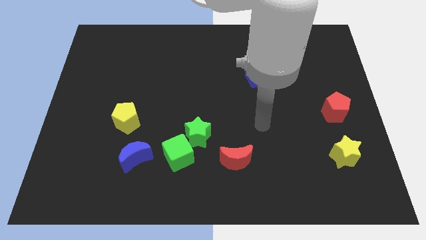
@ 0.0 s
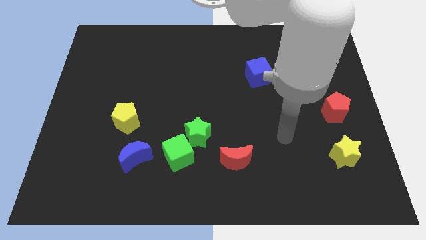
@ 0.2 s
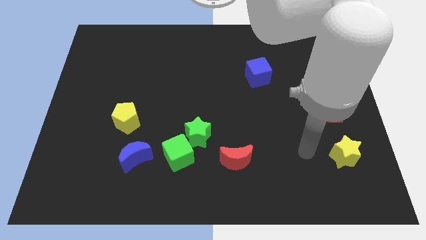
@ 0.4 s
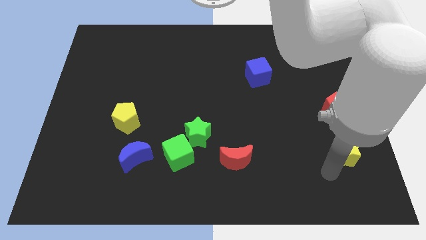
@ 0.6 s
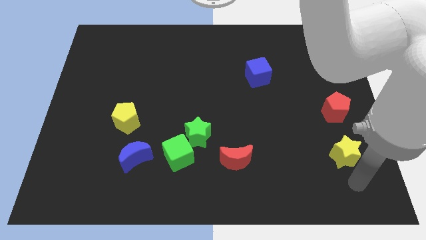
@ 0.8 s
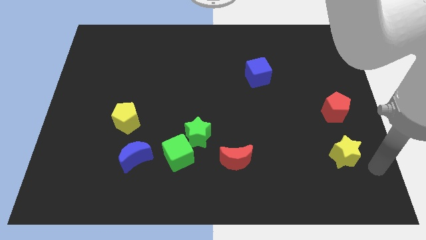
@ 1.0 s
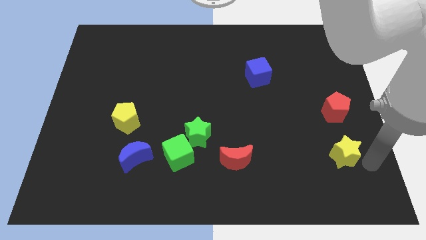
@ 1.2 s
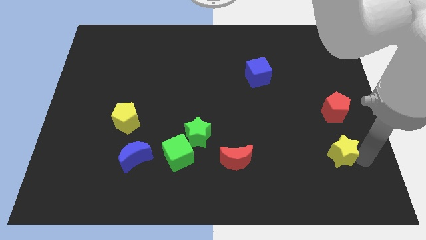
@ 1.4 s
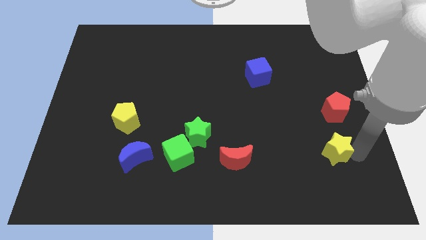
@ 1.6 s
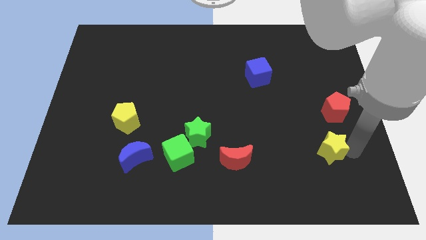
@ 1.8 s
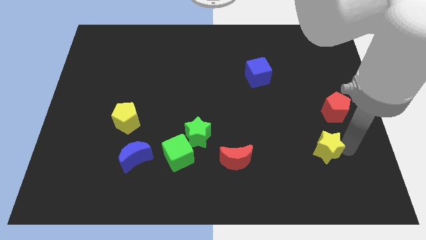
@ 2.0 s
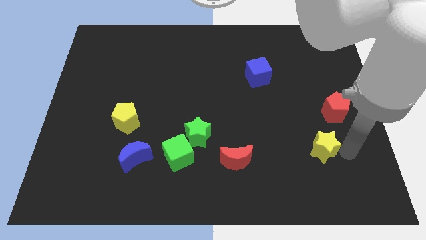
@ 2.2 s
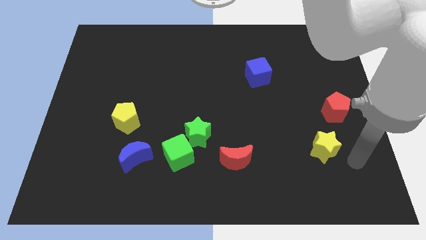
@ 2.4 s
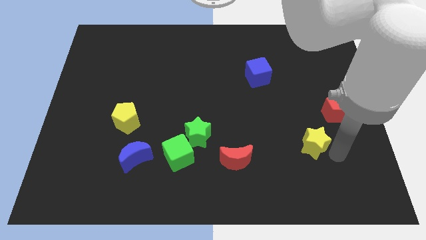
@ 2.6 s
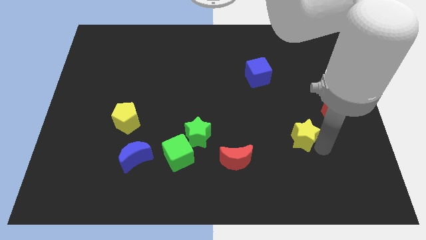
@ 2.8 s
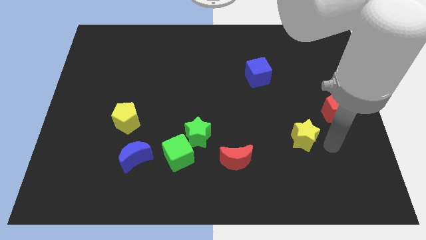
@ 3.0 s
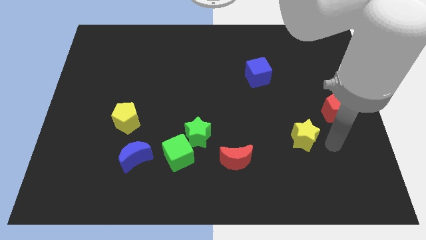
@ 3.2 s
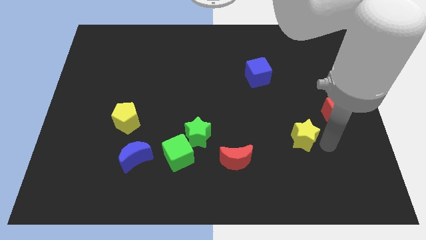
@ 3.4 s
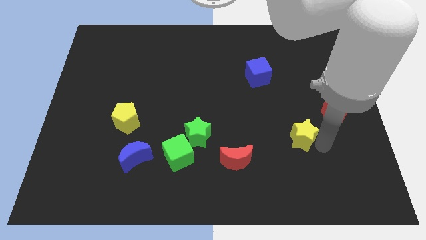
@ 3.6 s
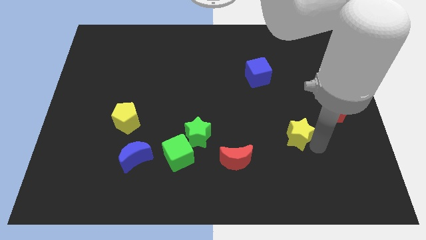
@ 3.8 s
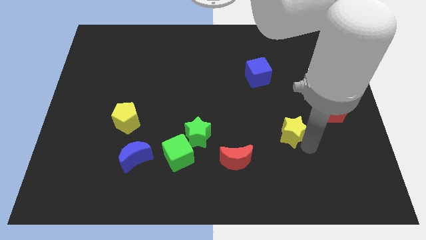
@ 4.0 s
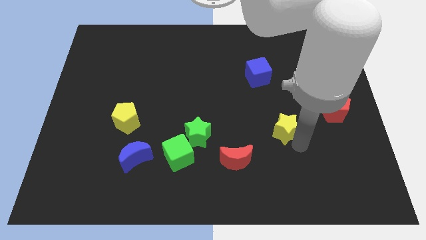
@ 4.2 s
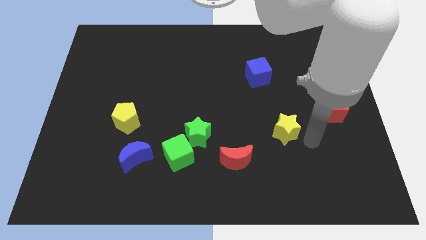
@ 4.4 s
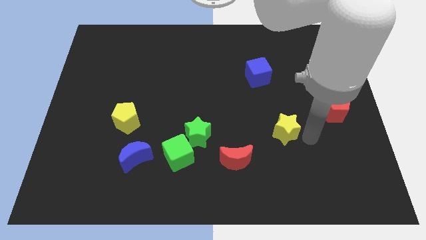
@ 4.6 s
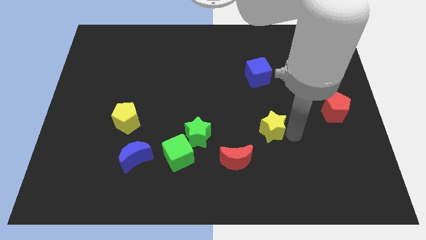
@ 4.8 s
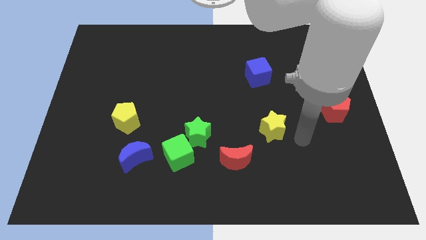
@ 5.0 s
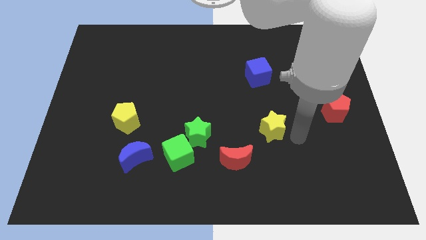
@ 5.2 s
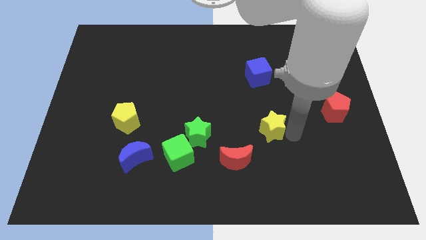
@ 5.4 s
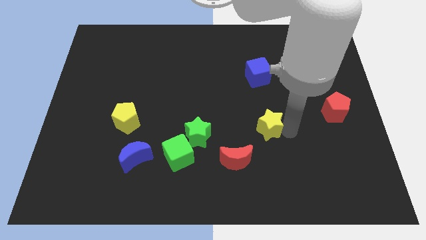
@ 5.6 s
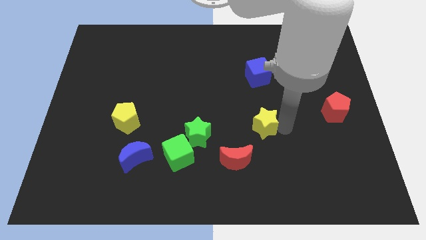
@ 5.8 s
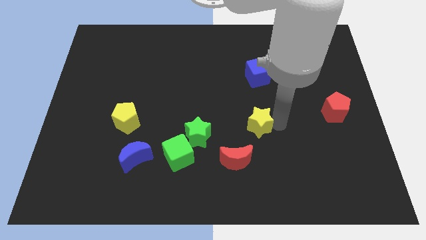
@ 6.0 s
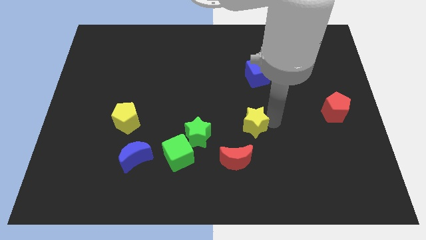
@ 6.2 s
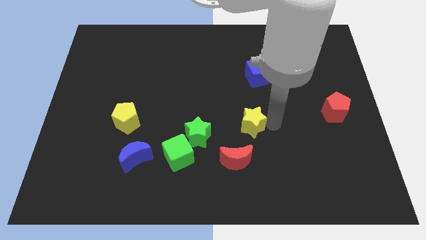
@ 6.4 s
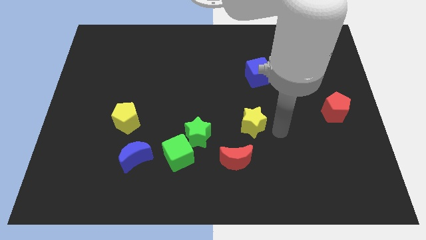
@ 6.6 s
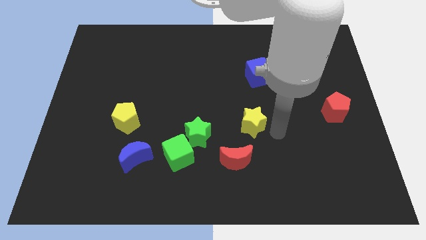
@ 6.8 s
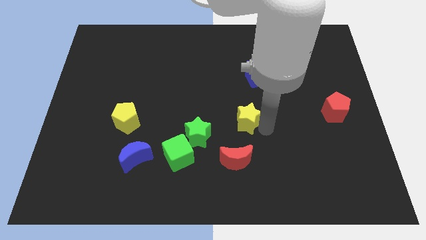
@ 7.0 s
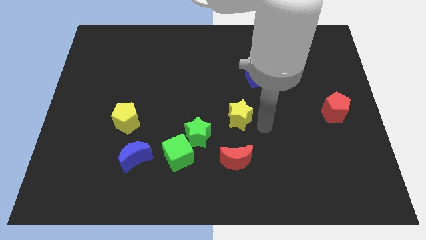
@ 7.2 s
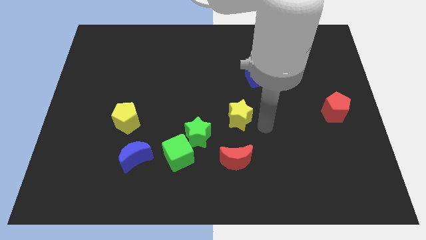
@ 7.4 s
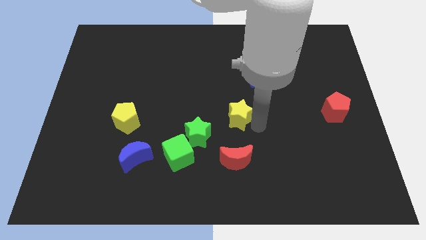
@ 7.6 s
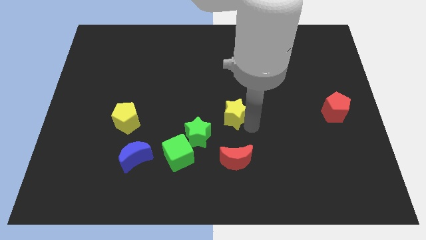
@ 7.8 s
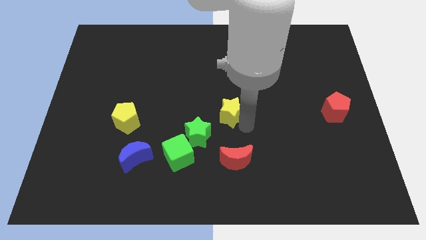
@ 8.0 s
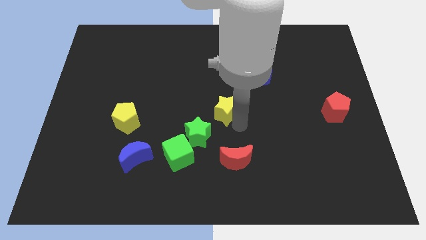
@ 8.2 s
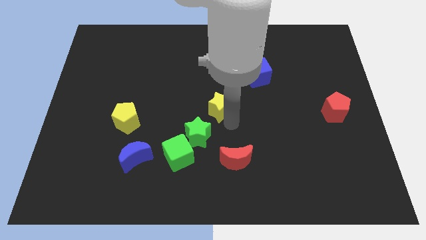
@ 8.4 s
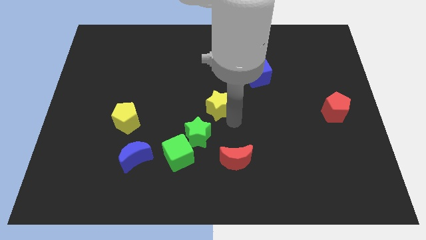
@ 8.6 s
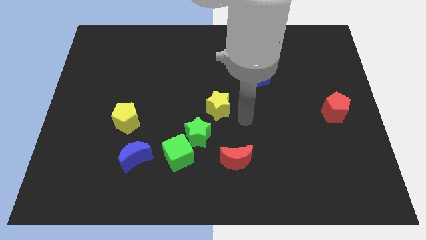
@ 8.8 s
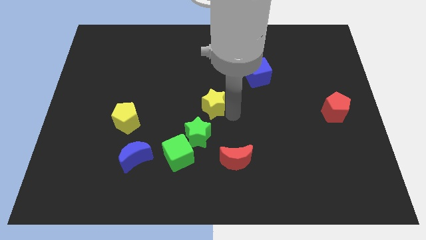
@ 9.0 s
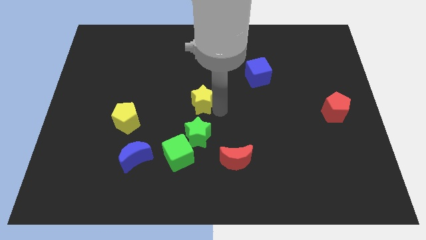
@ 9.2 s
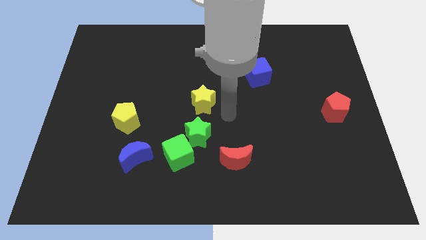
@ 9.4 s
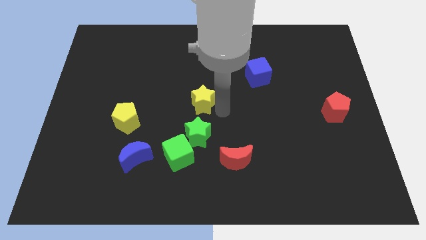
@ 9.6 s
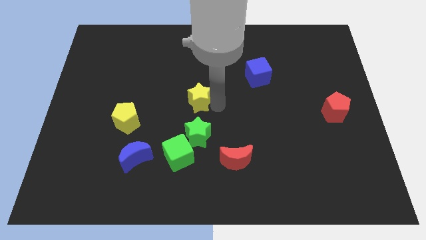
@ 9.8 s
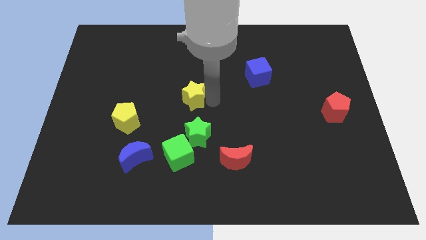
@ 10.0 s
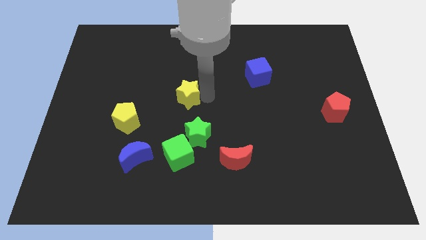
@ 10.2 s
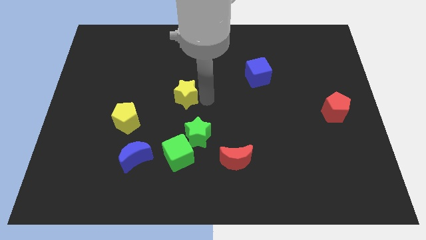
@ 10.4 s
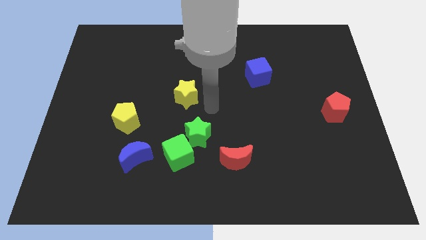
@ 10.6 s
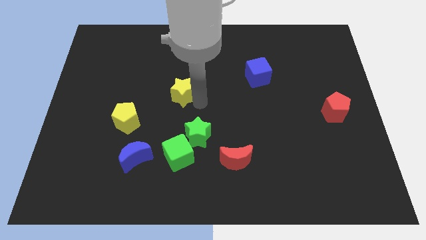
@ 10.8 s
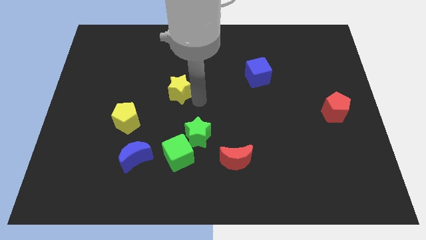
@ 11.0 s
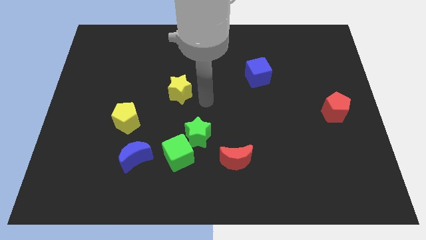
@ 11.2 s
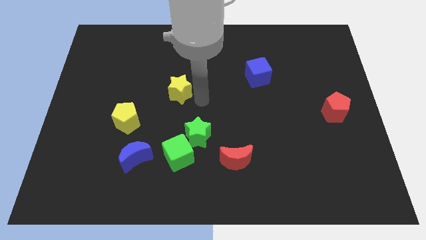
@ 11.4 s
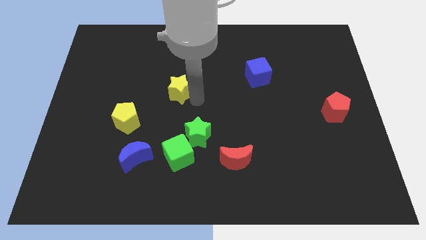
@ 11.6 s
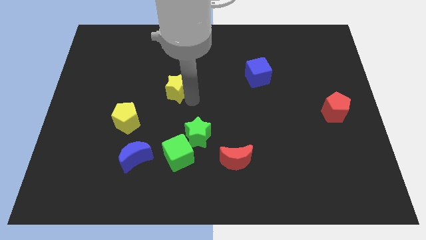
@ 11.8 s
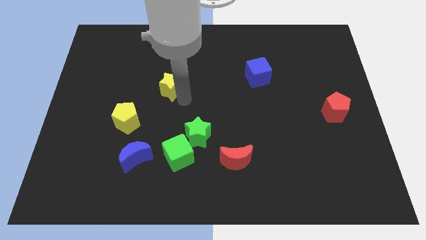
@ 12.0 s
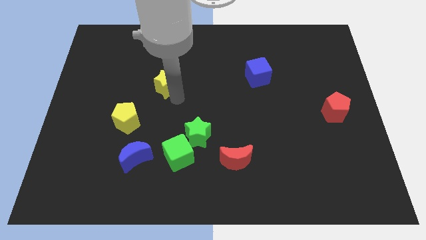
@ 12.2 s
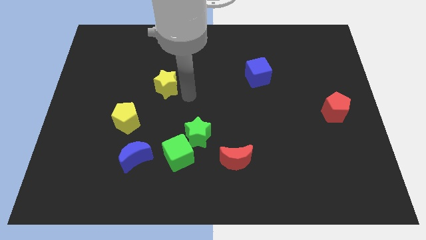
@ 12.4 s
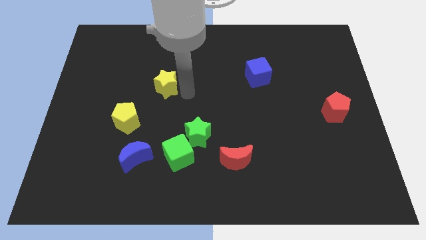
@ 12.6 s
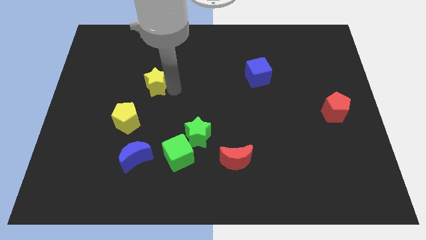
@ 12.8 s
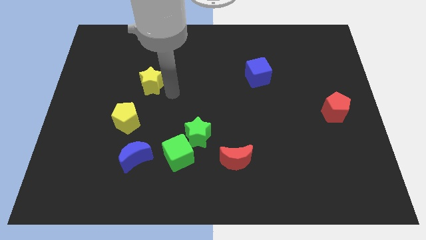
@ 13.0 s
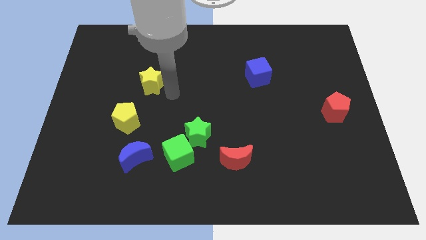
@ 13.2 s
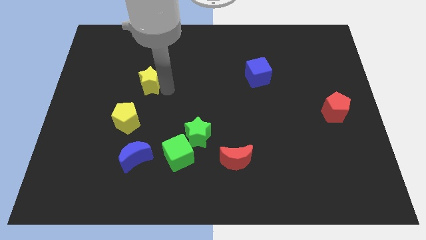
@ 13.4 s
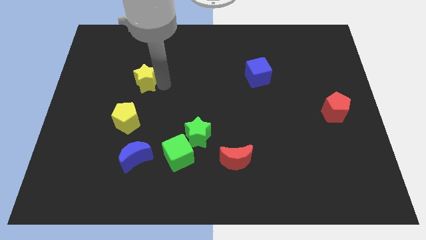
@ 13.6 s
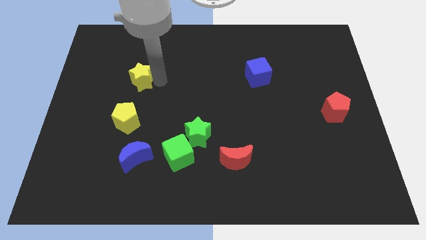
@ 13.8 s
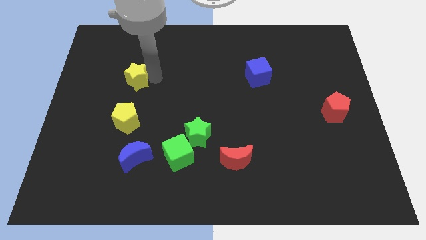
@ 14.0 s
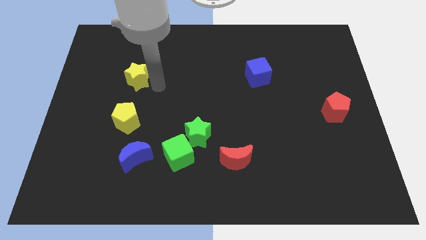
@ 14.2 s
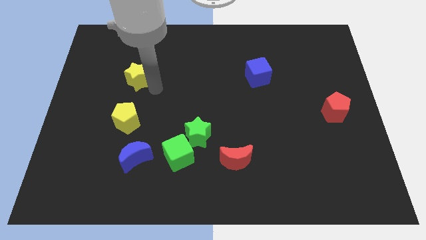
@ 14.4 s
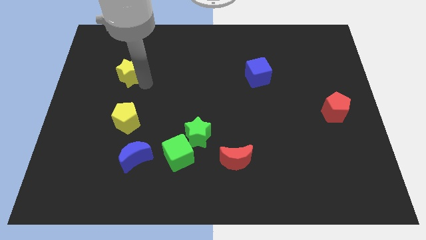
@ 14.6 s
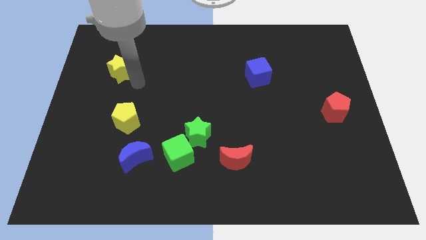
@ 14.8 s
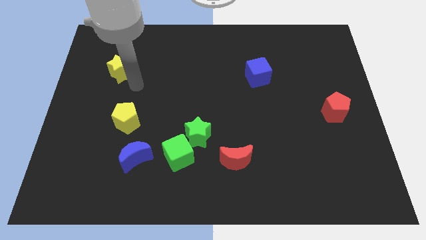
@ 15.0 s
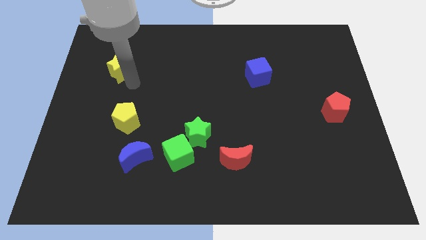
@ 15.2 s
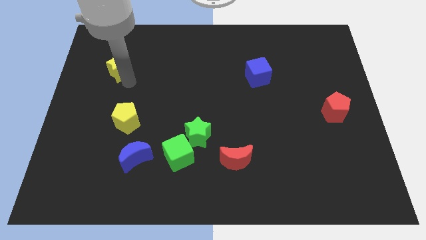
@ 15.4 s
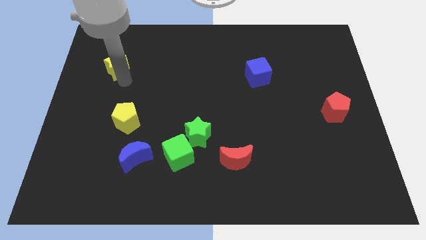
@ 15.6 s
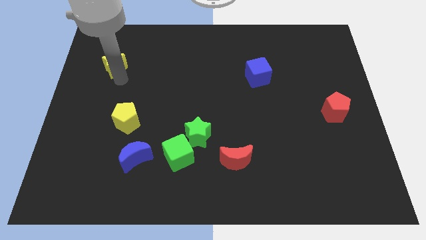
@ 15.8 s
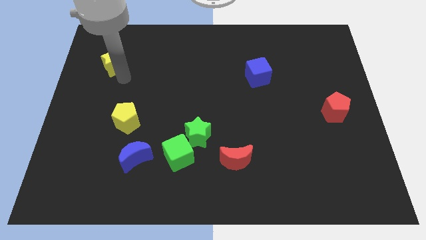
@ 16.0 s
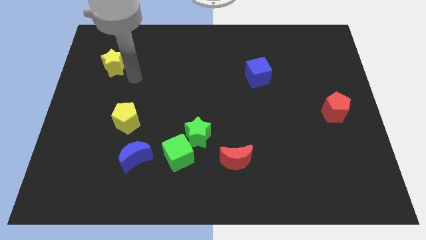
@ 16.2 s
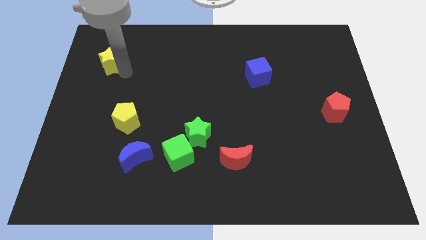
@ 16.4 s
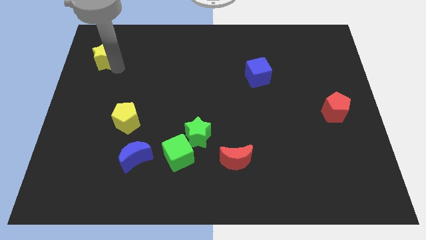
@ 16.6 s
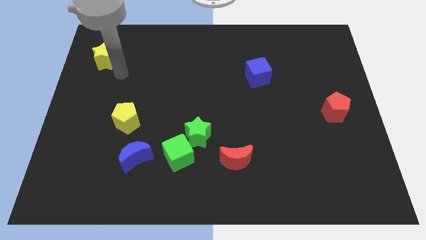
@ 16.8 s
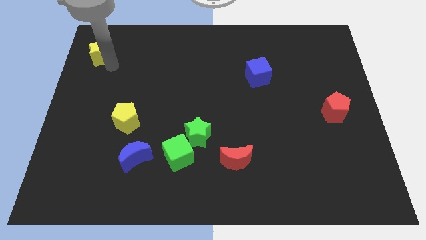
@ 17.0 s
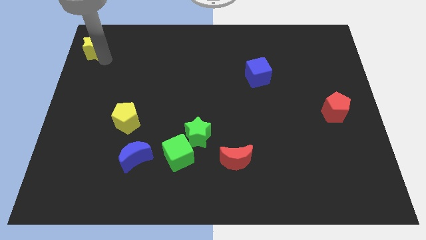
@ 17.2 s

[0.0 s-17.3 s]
move the yellow star to the top left corner
